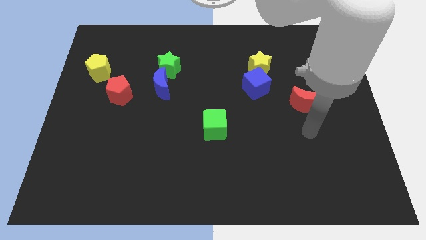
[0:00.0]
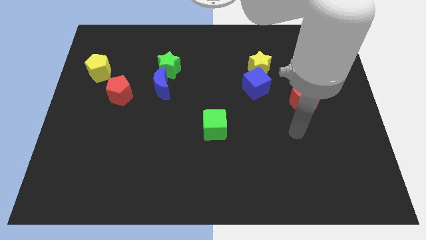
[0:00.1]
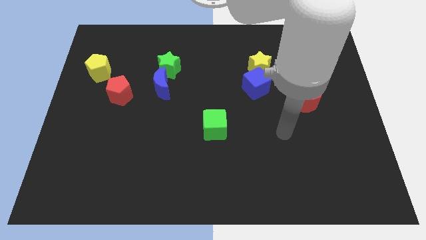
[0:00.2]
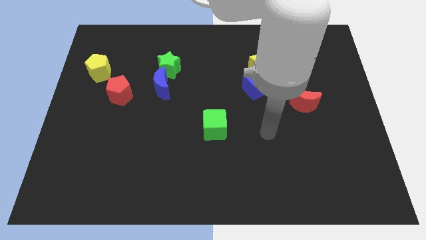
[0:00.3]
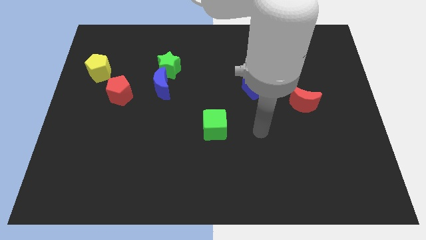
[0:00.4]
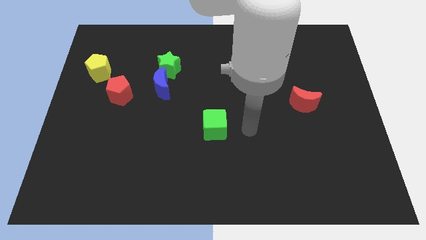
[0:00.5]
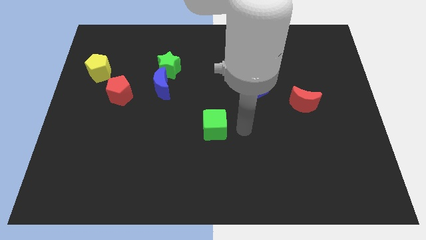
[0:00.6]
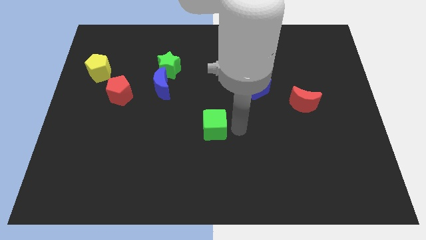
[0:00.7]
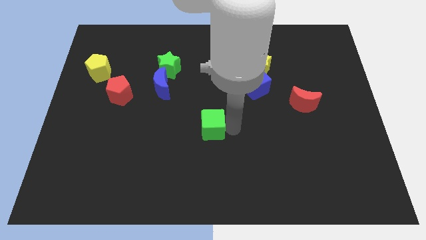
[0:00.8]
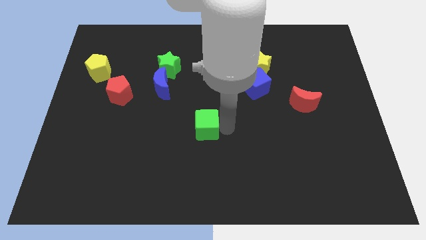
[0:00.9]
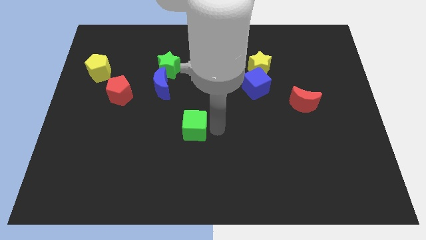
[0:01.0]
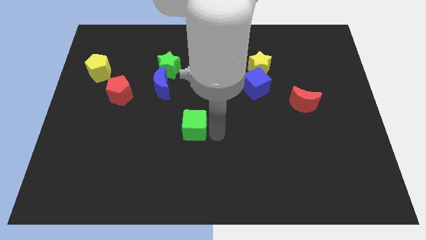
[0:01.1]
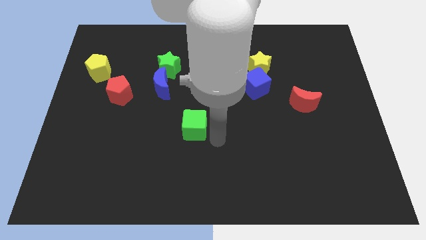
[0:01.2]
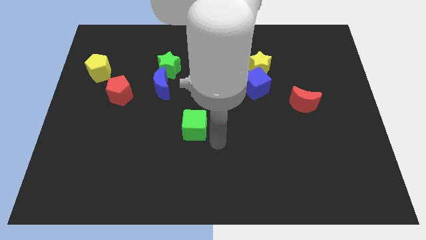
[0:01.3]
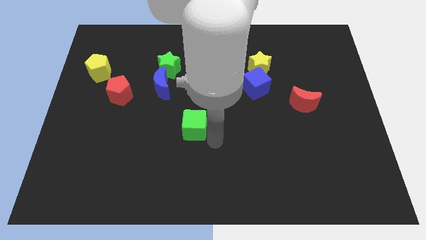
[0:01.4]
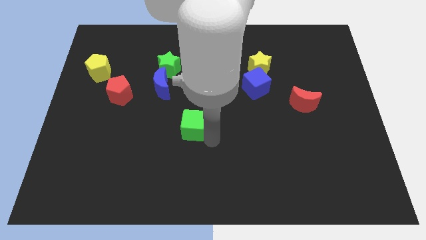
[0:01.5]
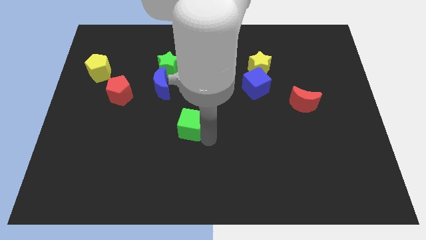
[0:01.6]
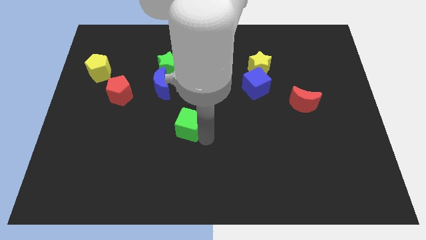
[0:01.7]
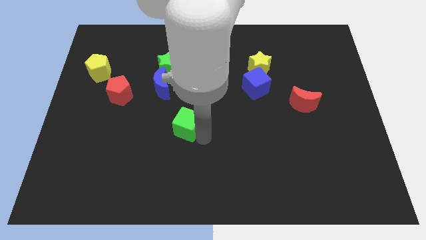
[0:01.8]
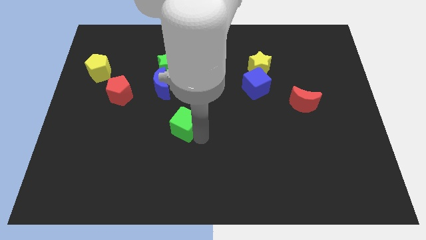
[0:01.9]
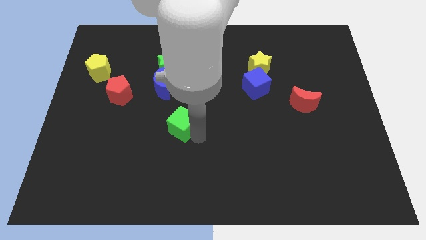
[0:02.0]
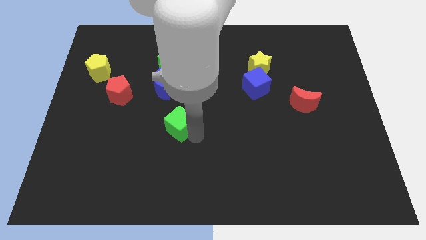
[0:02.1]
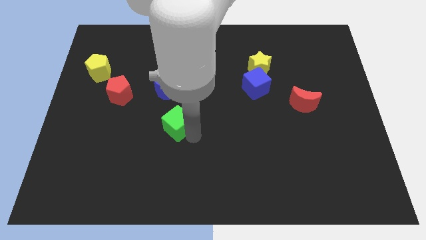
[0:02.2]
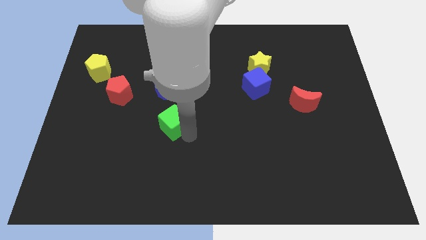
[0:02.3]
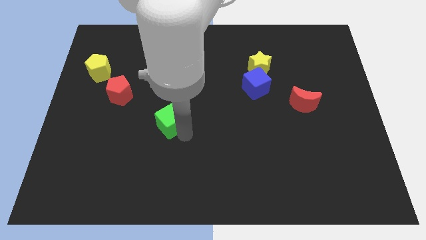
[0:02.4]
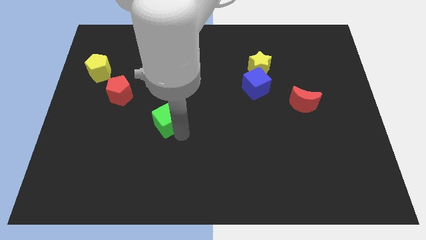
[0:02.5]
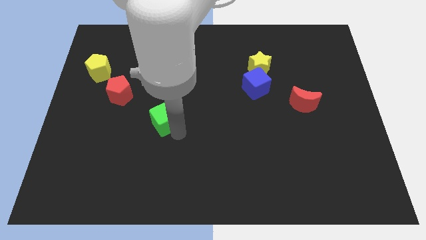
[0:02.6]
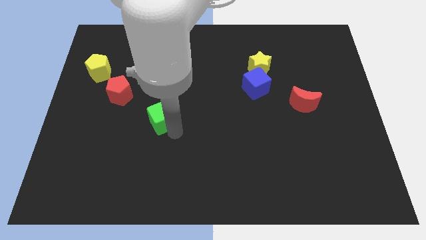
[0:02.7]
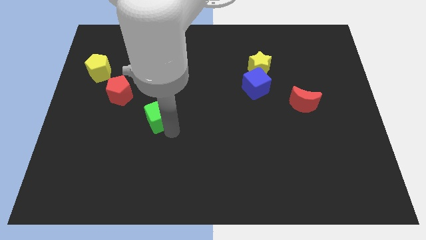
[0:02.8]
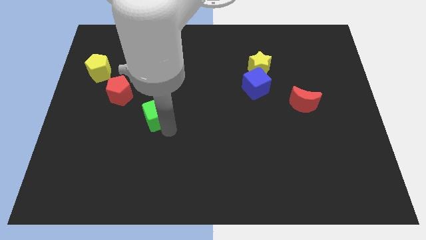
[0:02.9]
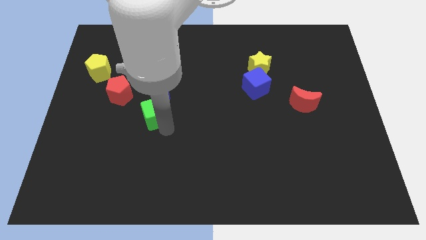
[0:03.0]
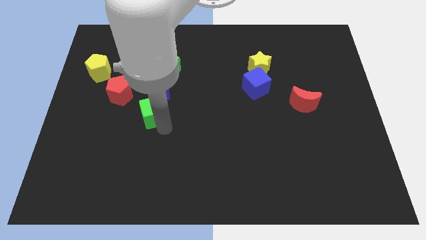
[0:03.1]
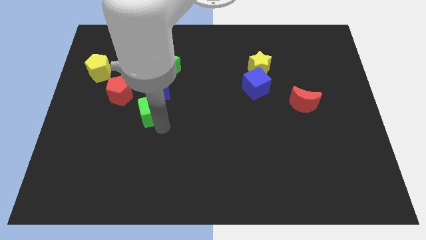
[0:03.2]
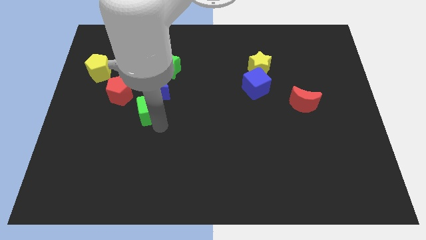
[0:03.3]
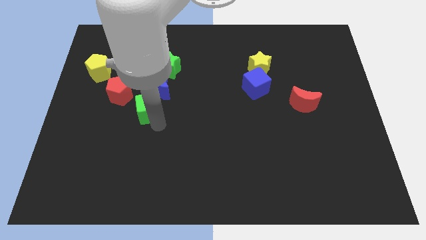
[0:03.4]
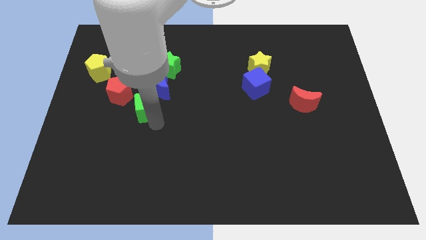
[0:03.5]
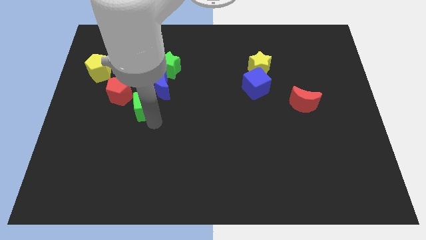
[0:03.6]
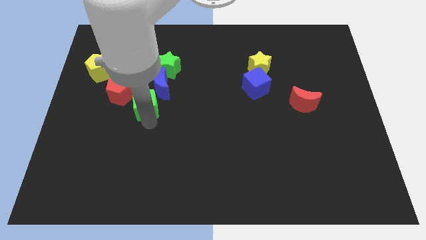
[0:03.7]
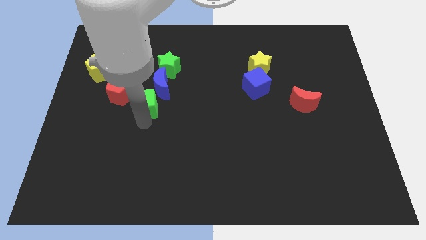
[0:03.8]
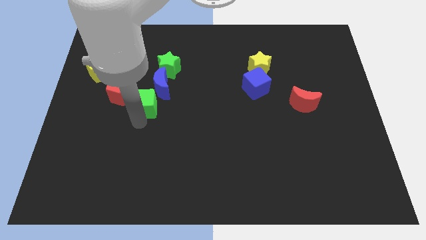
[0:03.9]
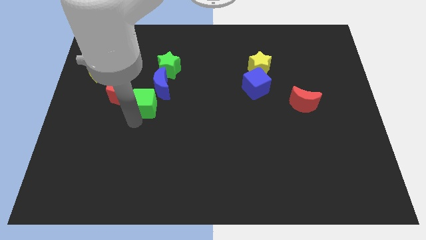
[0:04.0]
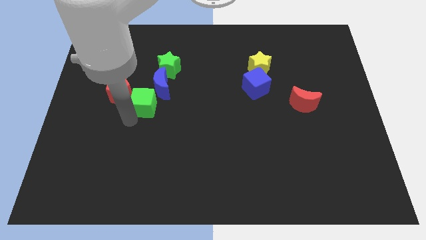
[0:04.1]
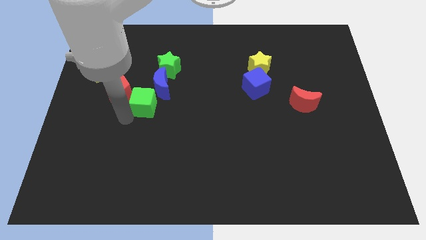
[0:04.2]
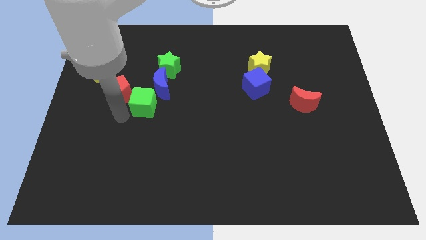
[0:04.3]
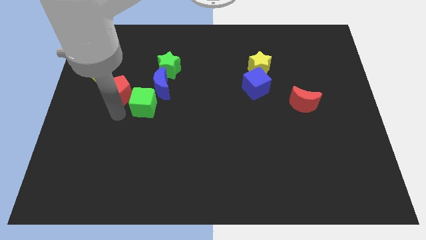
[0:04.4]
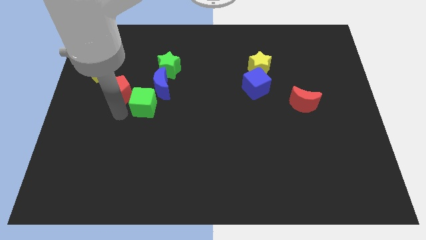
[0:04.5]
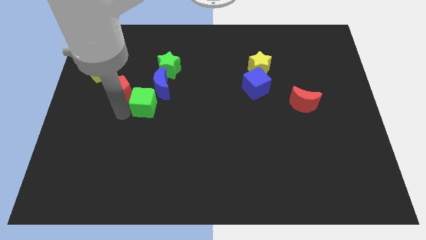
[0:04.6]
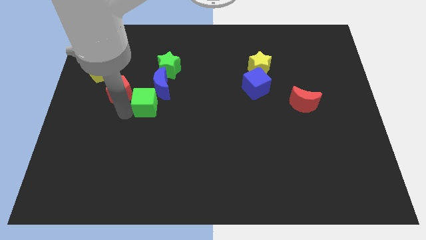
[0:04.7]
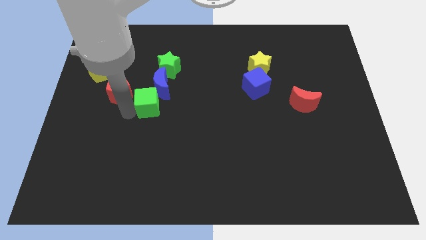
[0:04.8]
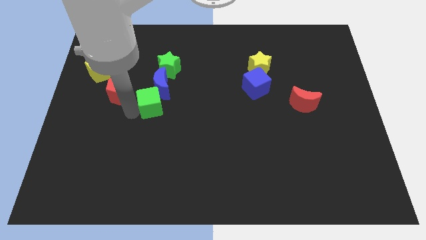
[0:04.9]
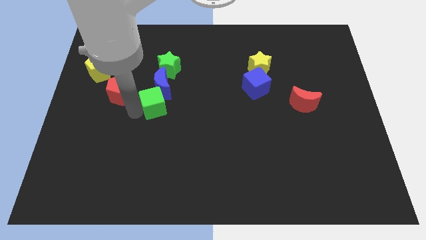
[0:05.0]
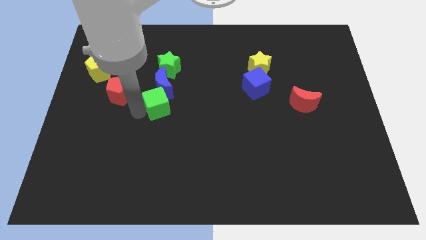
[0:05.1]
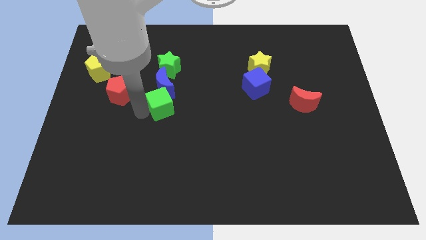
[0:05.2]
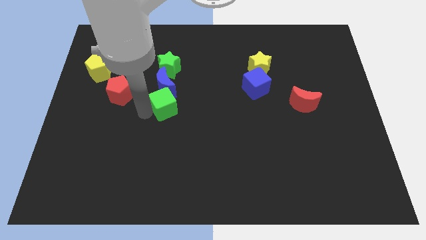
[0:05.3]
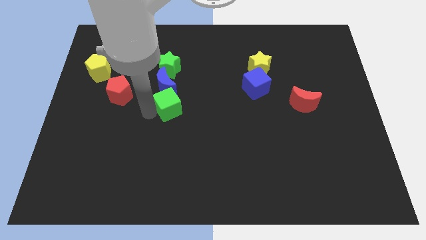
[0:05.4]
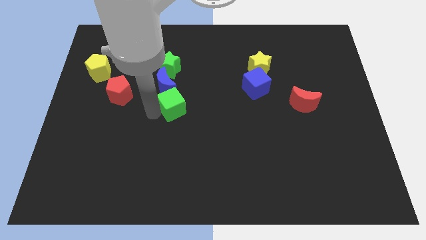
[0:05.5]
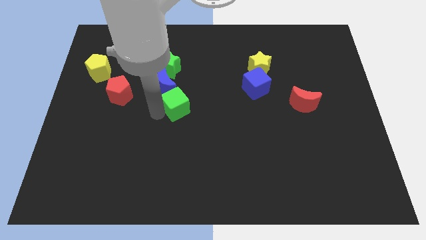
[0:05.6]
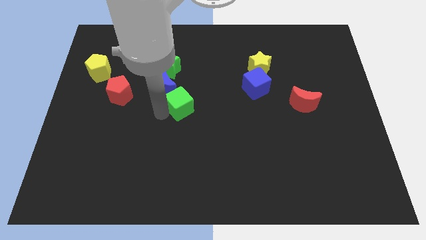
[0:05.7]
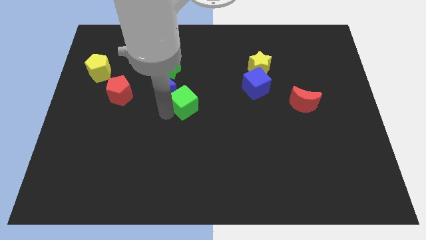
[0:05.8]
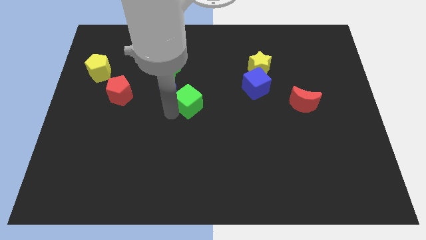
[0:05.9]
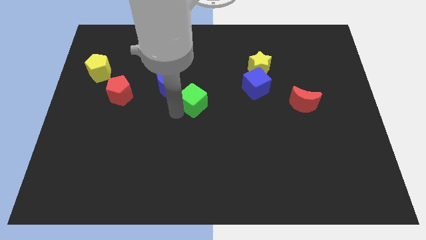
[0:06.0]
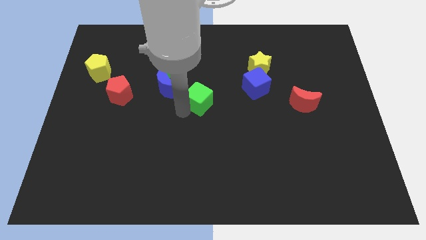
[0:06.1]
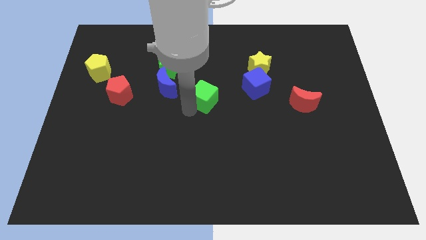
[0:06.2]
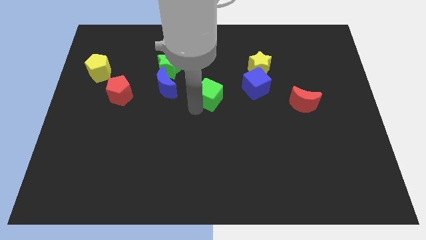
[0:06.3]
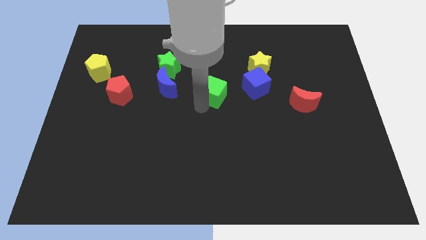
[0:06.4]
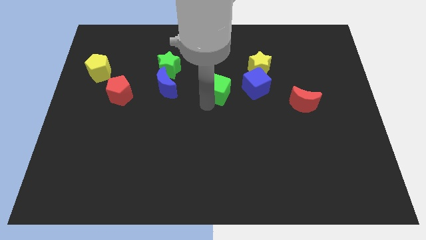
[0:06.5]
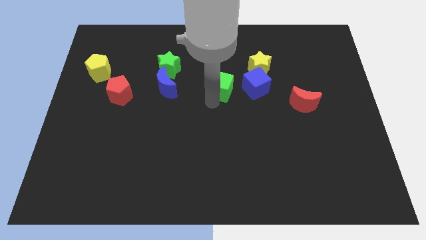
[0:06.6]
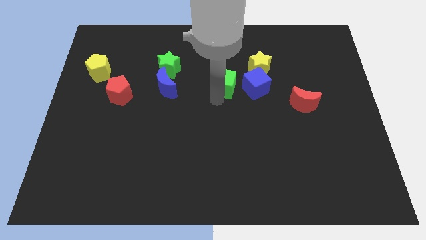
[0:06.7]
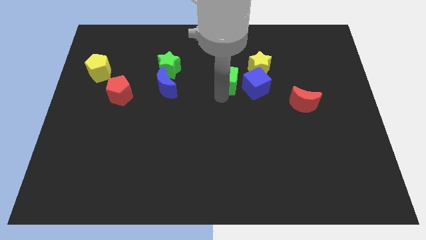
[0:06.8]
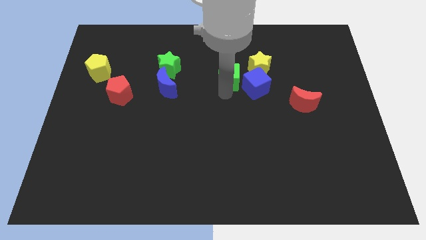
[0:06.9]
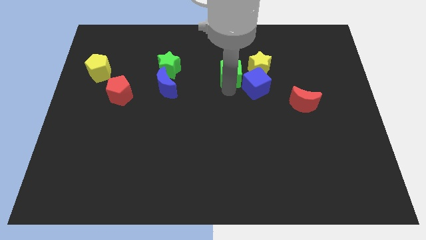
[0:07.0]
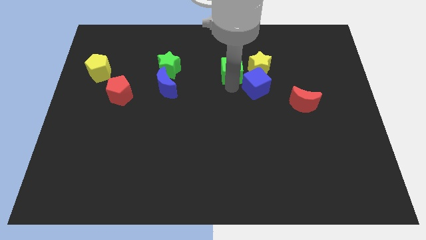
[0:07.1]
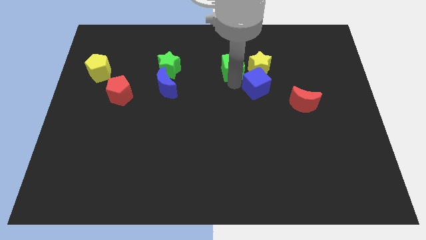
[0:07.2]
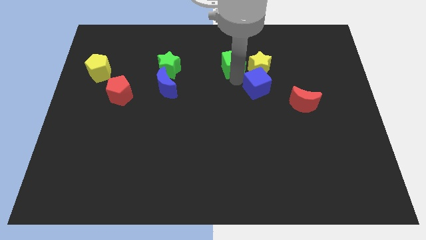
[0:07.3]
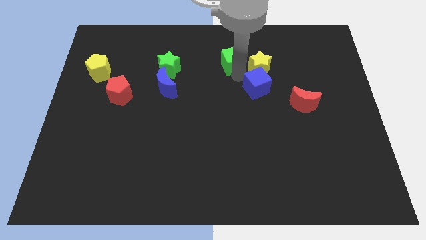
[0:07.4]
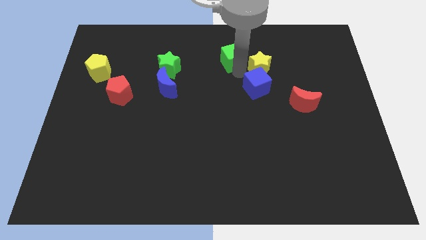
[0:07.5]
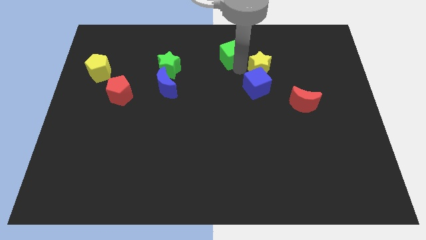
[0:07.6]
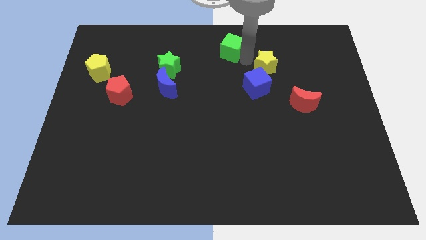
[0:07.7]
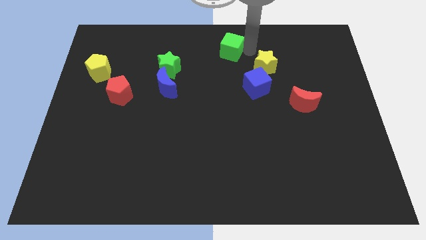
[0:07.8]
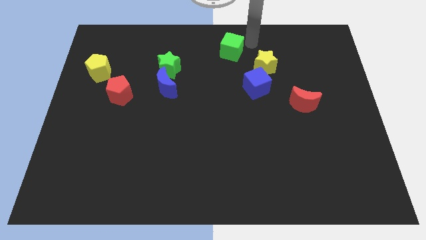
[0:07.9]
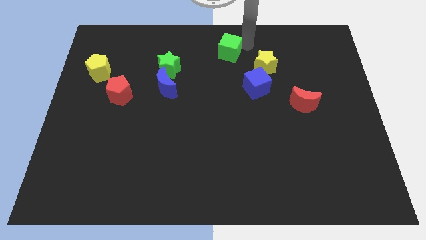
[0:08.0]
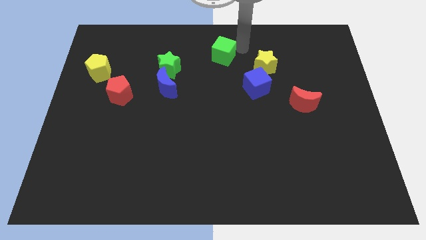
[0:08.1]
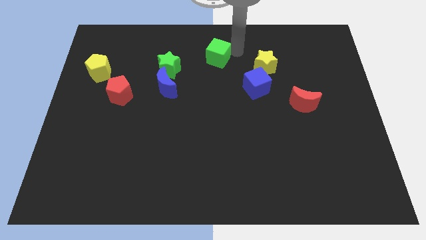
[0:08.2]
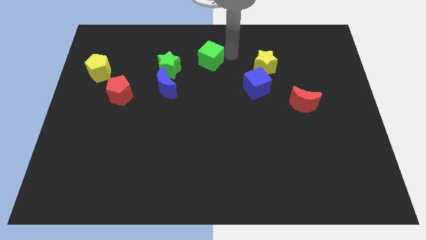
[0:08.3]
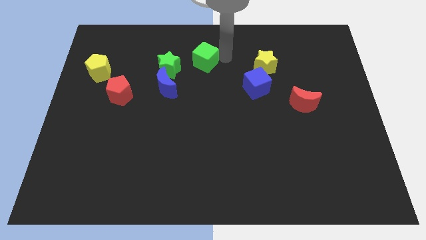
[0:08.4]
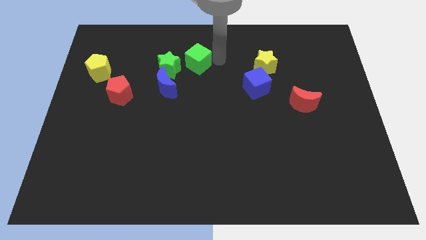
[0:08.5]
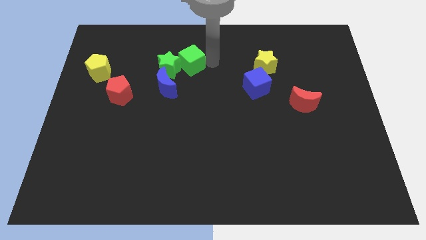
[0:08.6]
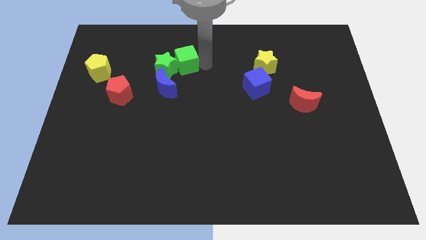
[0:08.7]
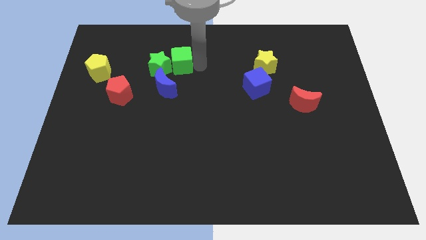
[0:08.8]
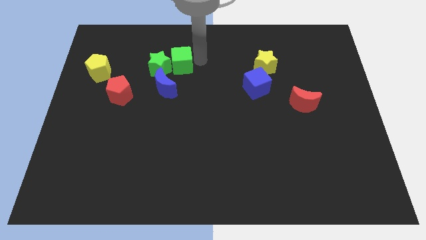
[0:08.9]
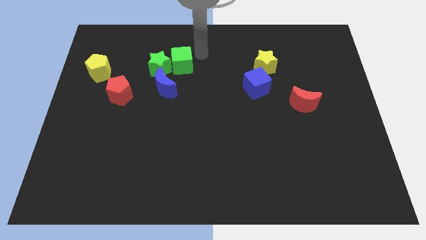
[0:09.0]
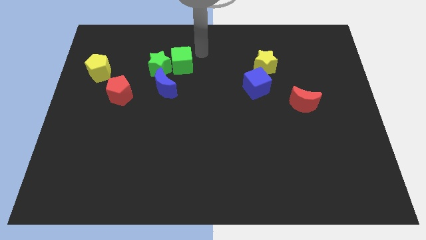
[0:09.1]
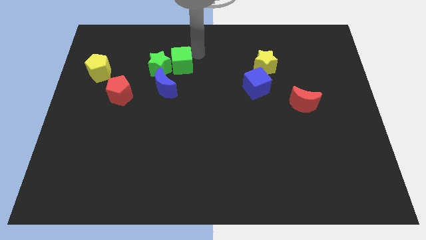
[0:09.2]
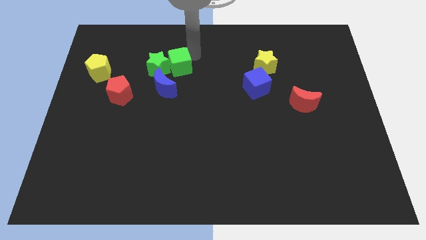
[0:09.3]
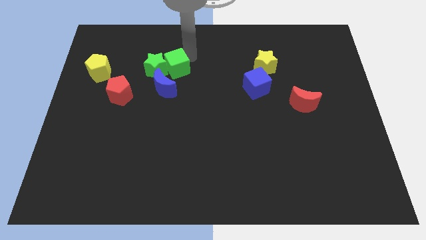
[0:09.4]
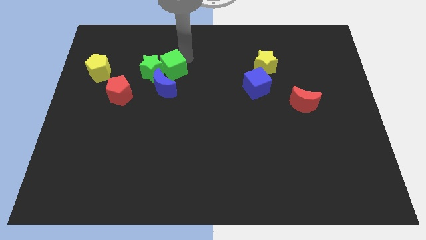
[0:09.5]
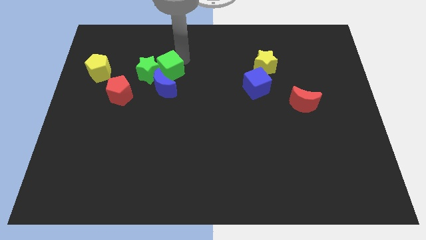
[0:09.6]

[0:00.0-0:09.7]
move the green cube up and then left
